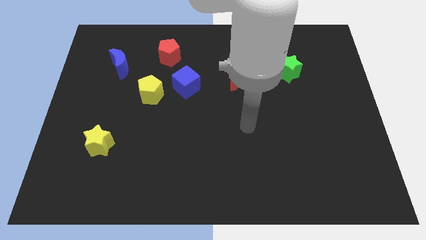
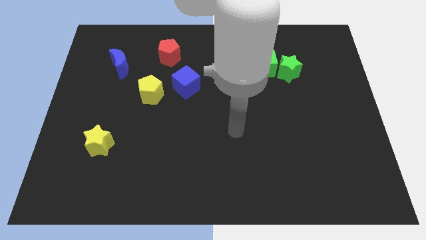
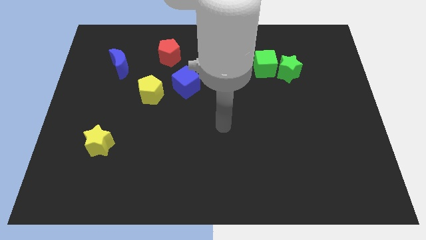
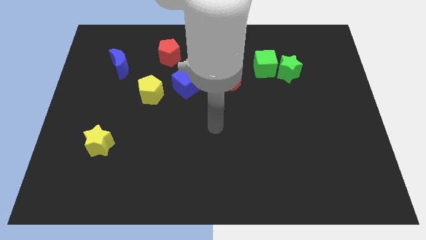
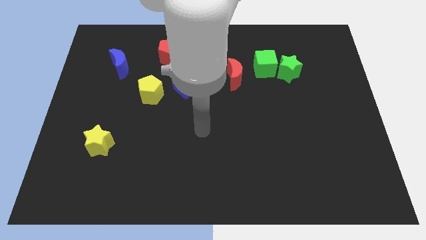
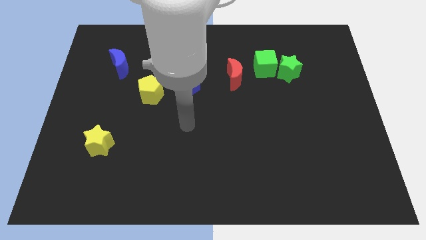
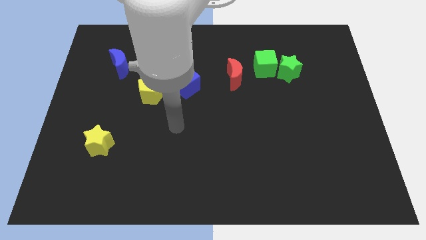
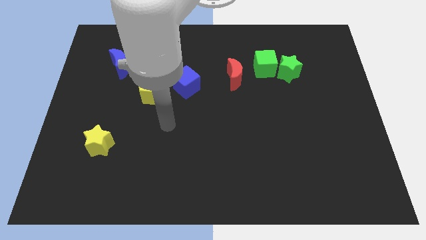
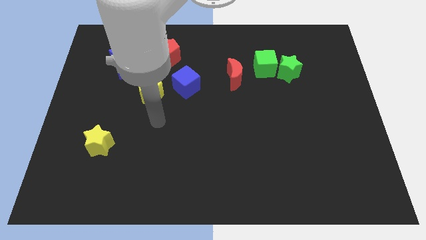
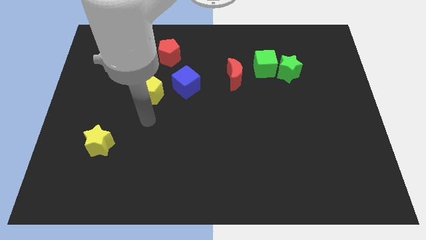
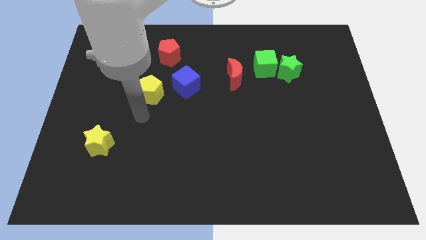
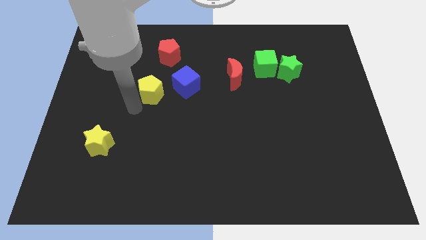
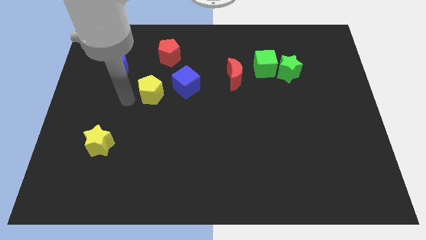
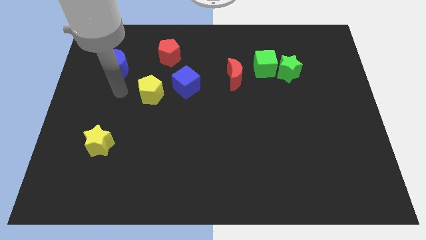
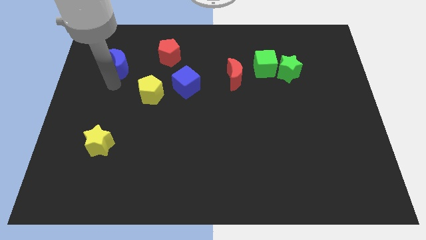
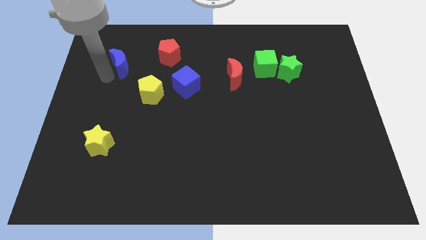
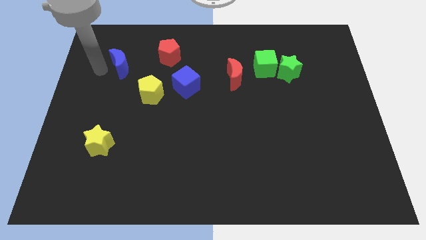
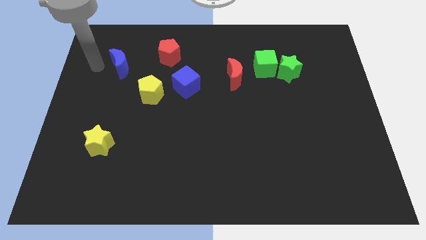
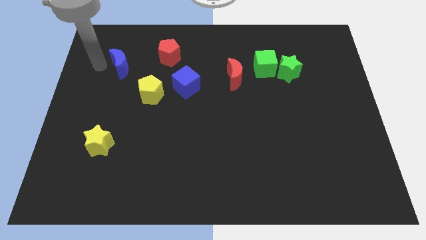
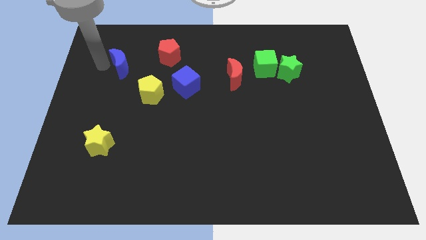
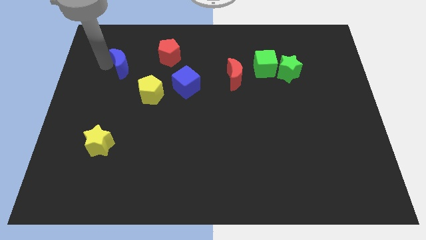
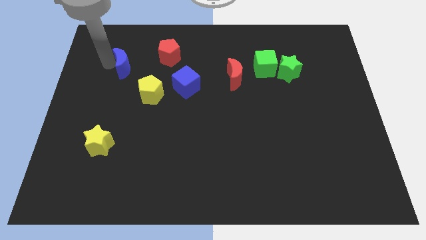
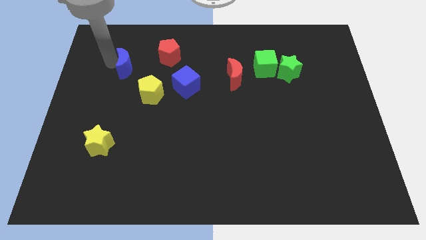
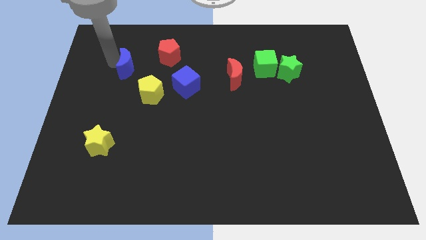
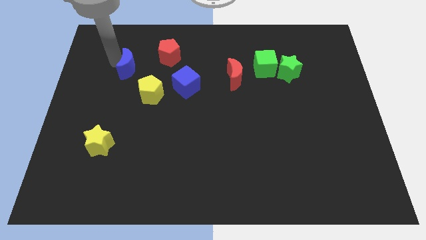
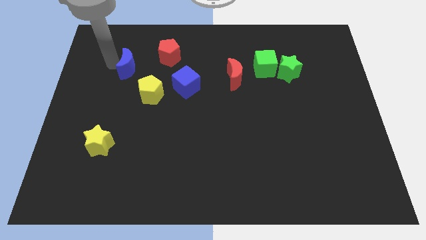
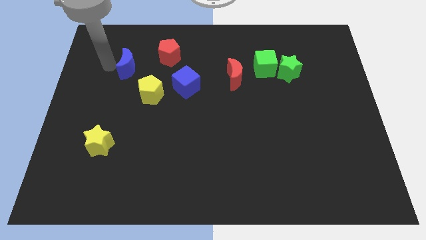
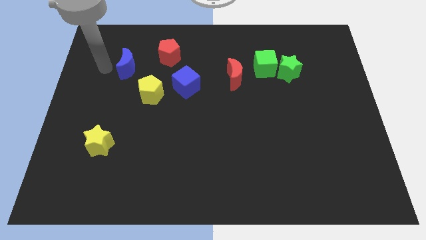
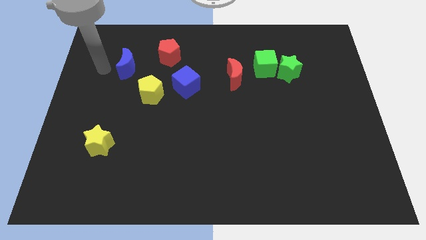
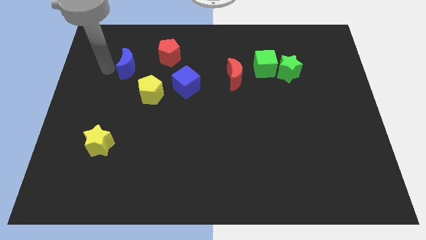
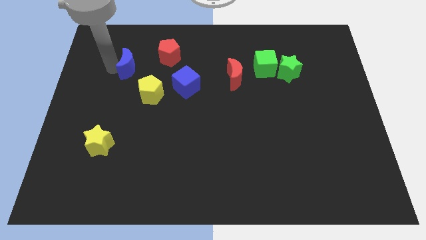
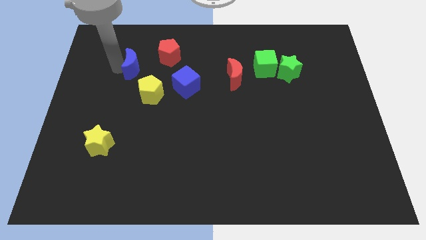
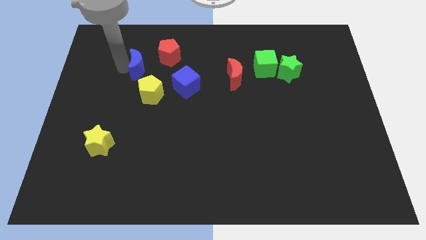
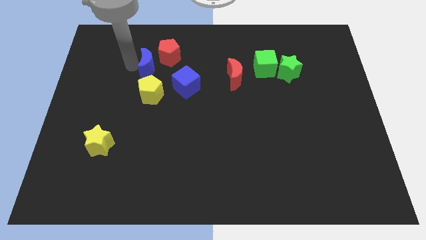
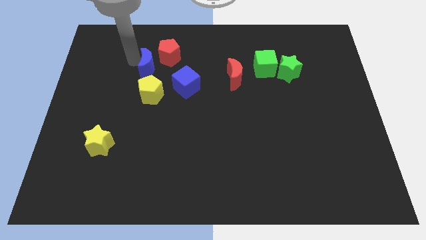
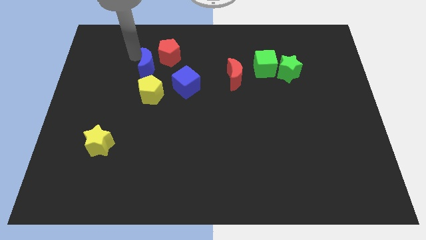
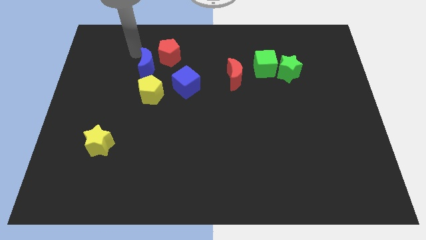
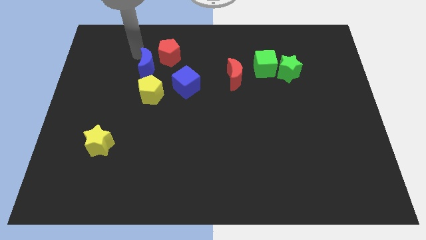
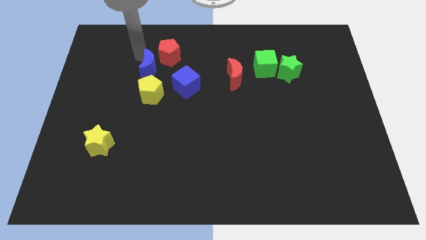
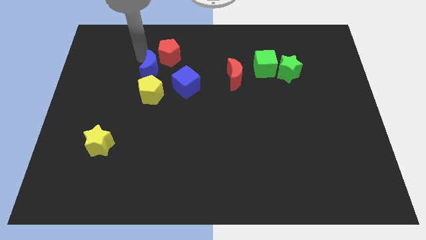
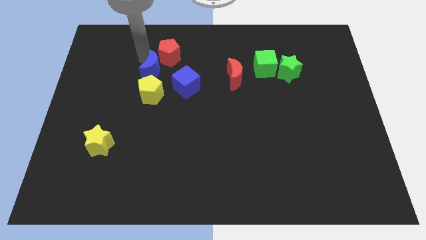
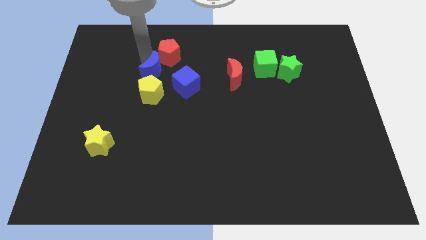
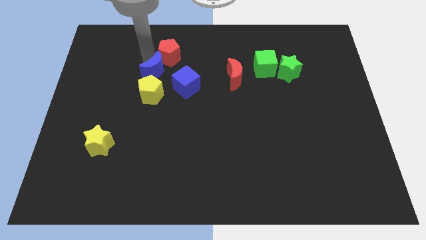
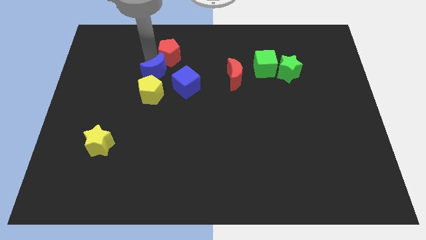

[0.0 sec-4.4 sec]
slide the blue moon slightly diagonally downwards and right

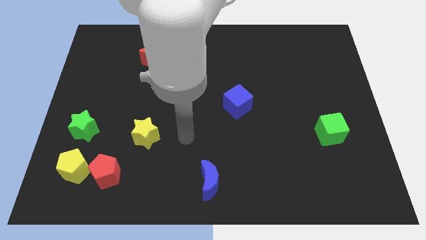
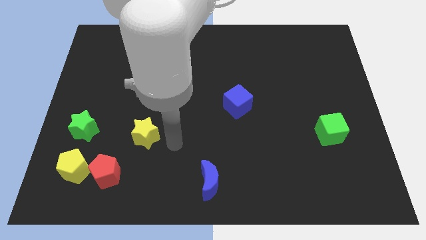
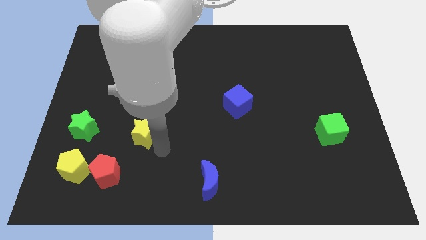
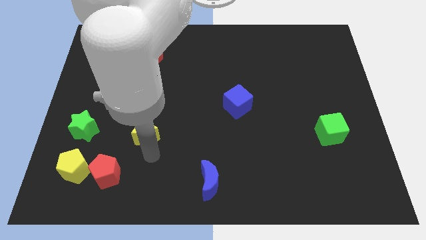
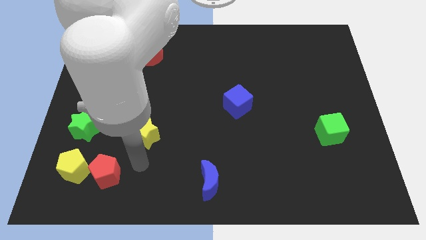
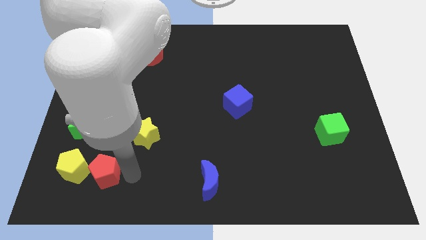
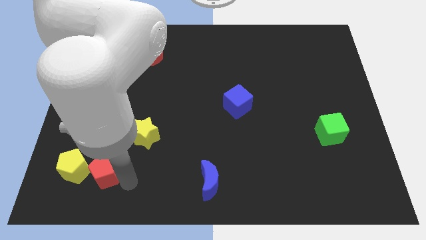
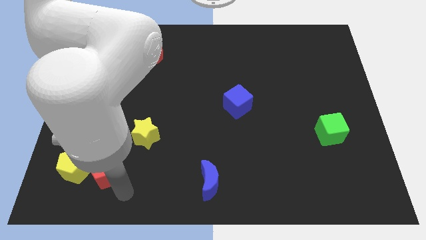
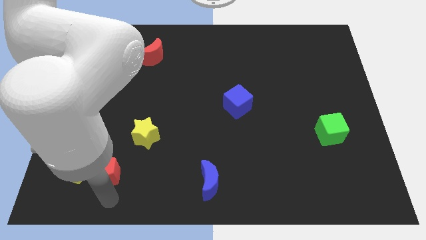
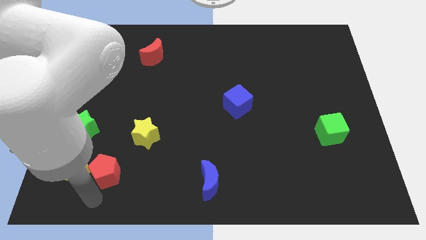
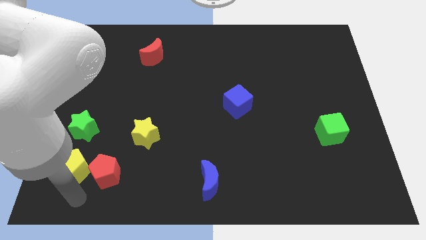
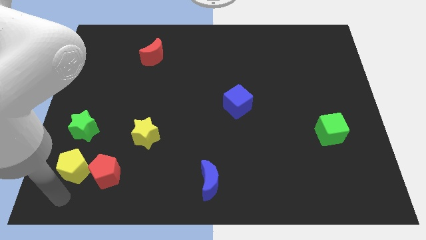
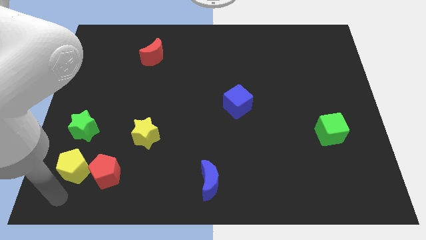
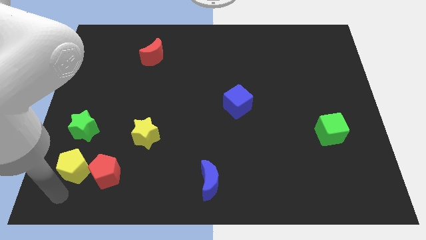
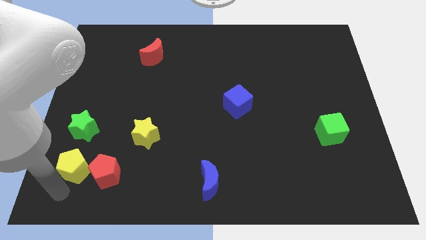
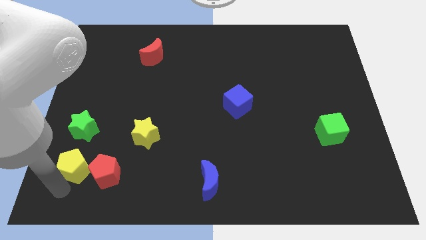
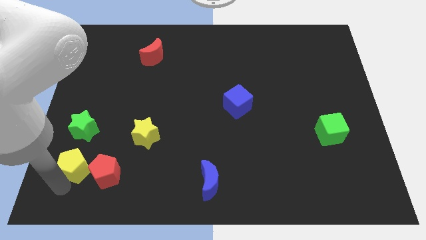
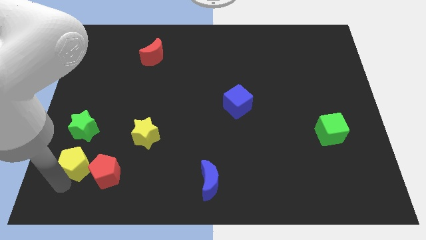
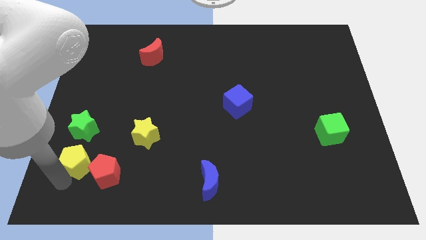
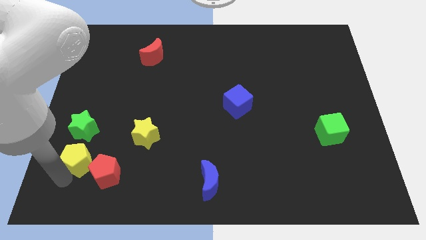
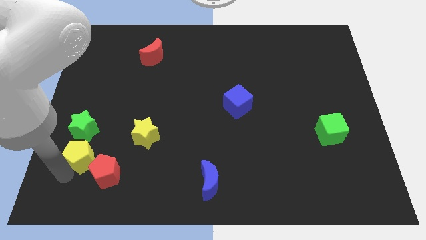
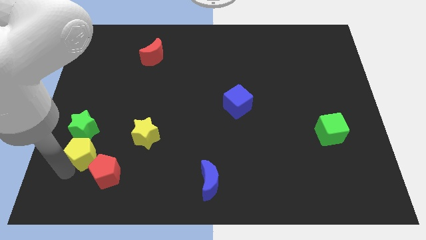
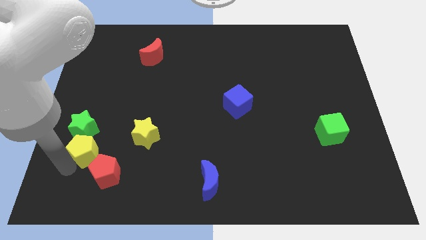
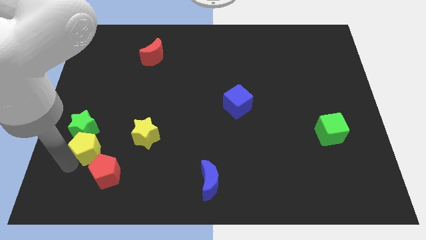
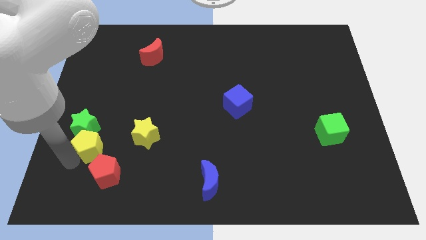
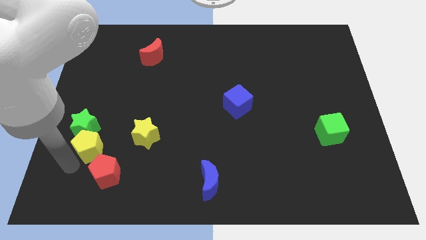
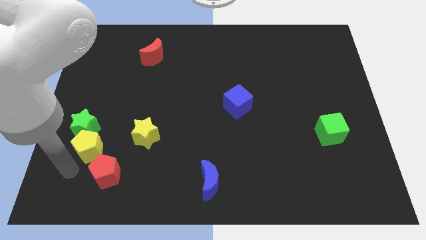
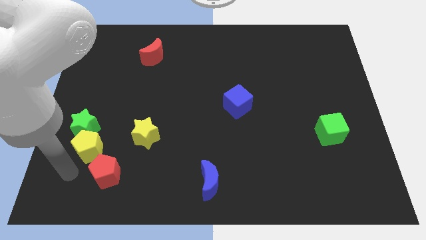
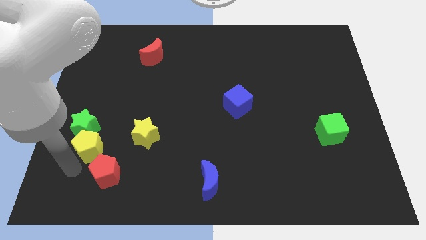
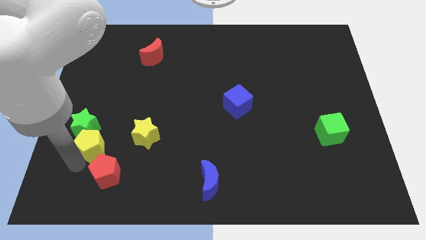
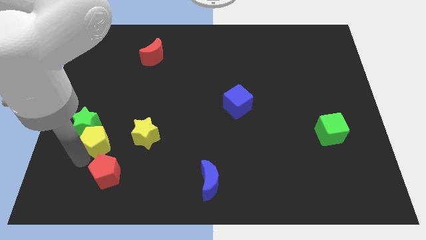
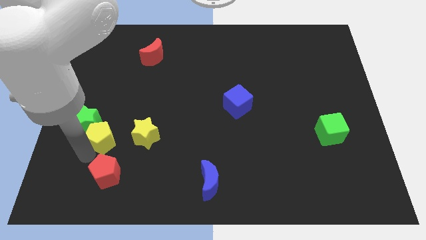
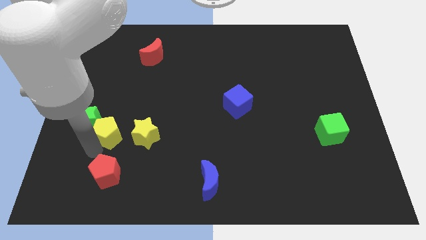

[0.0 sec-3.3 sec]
slightly push the yellow pentagon up

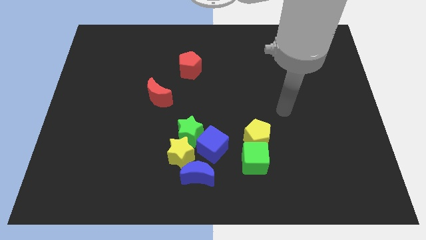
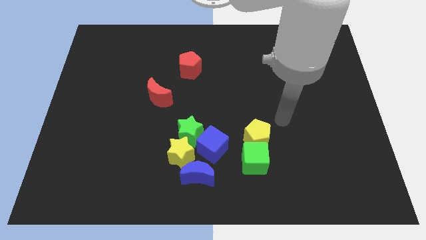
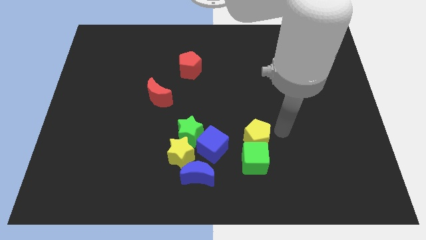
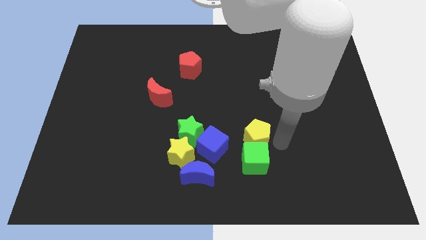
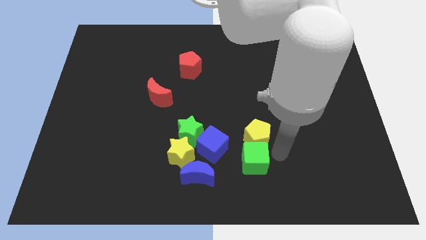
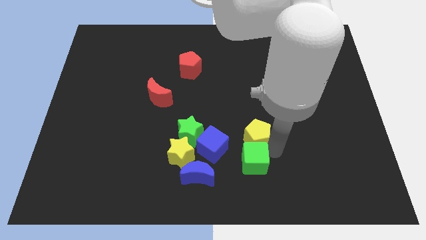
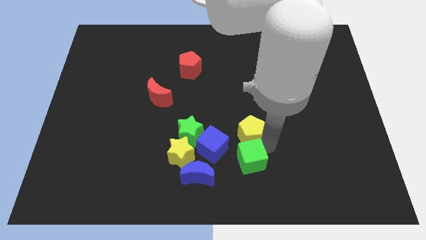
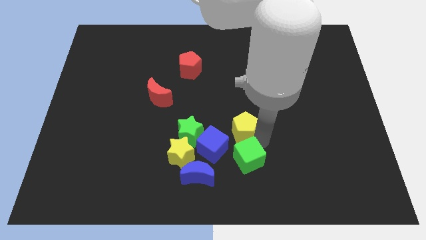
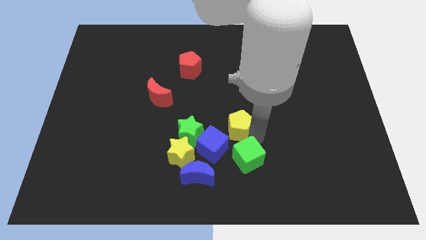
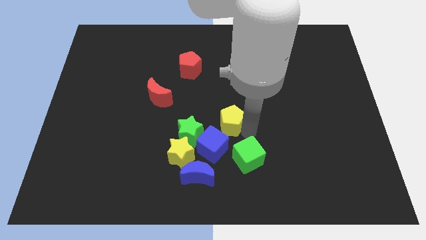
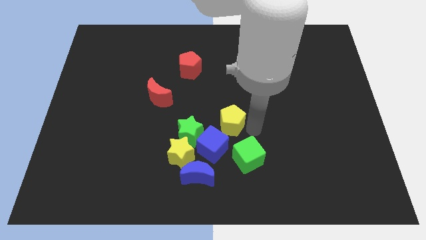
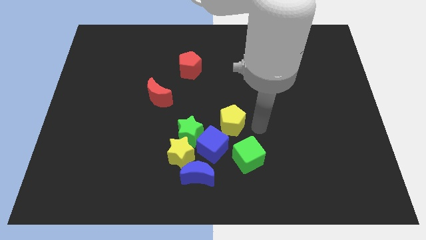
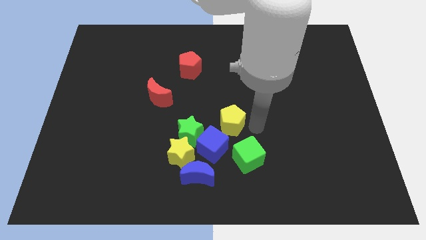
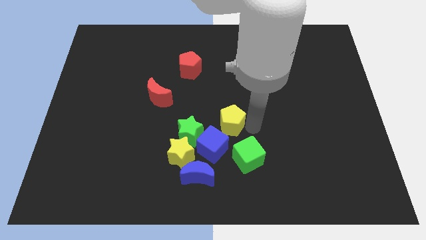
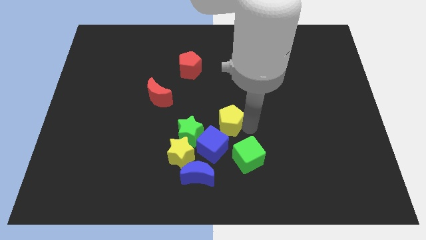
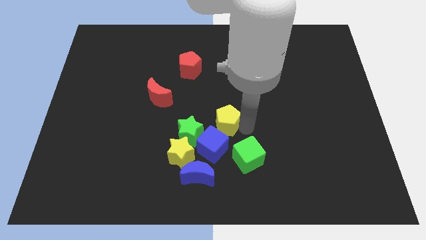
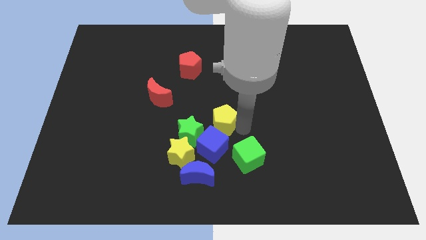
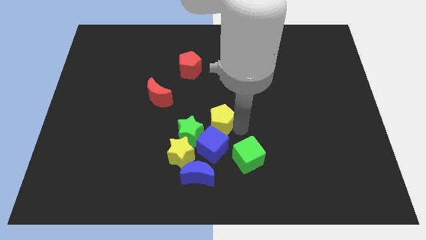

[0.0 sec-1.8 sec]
slide the yellow pentagon somewhat left
